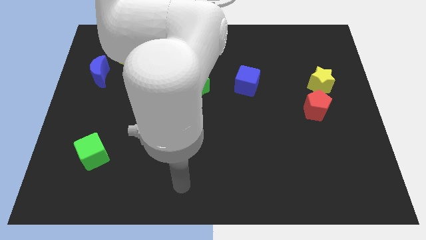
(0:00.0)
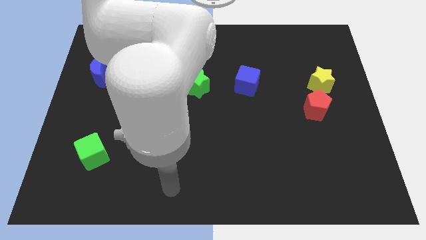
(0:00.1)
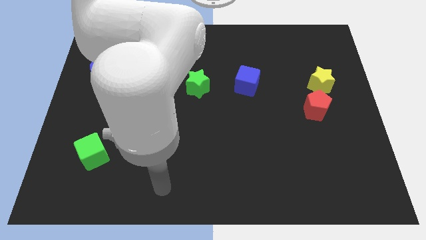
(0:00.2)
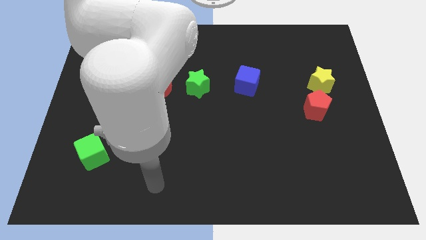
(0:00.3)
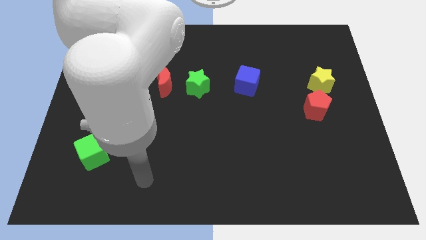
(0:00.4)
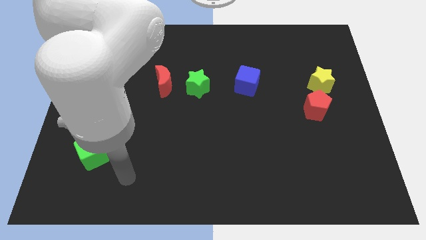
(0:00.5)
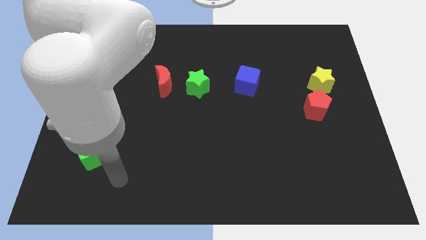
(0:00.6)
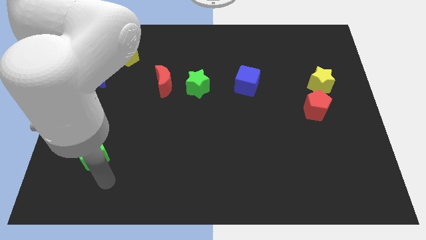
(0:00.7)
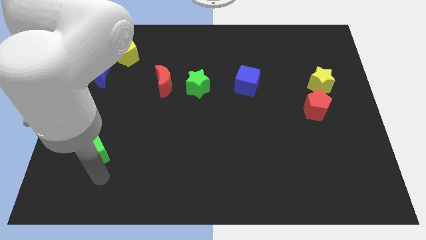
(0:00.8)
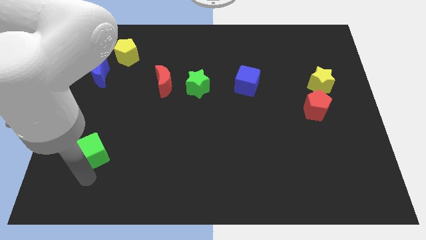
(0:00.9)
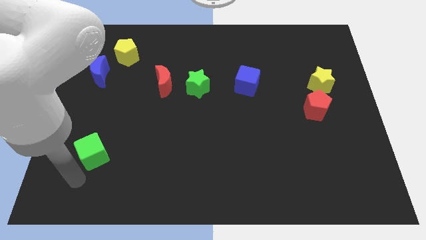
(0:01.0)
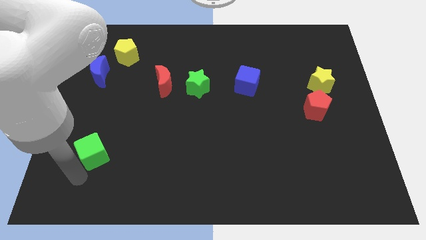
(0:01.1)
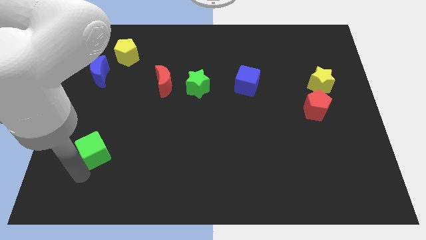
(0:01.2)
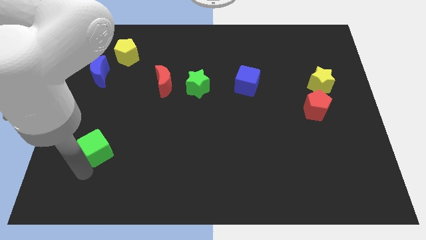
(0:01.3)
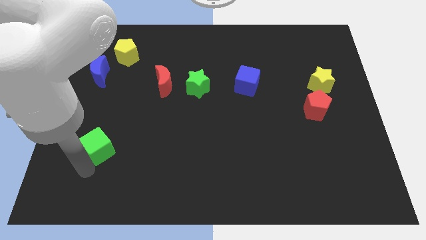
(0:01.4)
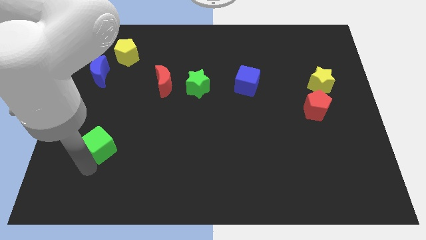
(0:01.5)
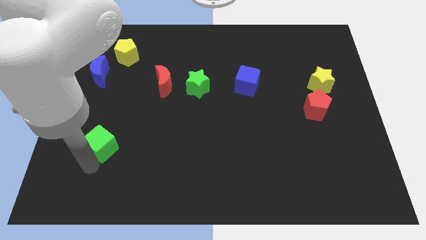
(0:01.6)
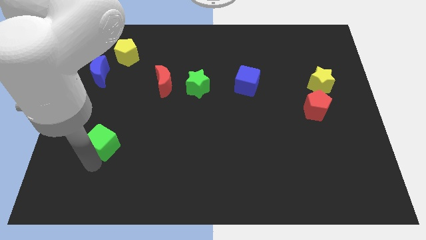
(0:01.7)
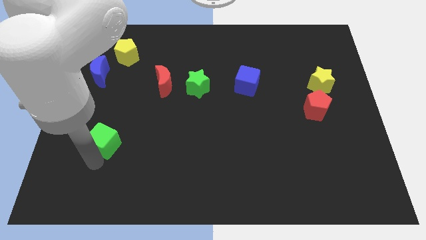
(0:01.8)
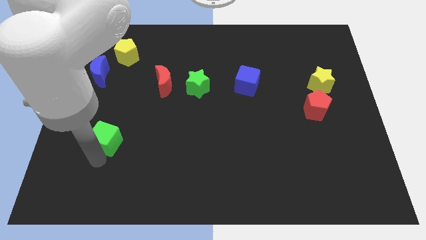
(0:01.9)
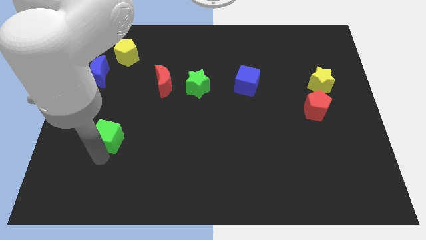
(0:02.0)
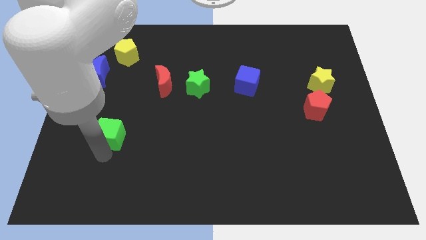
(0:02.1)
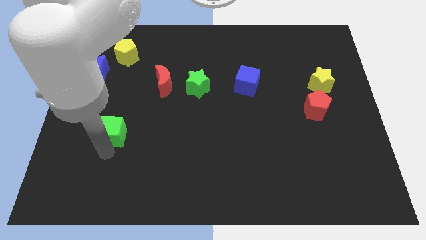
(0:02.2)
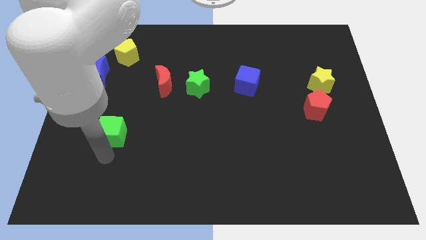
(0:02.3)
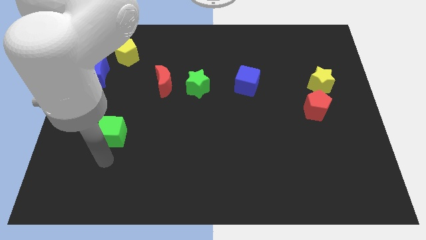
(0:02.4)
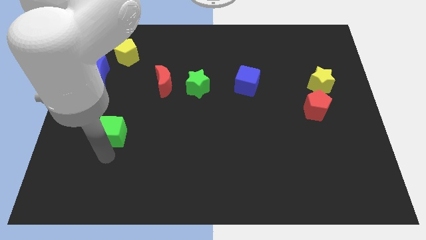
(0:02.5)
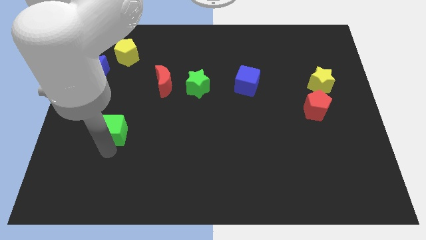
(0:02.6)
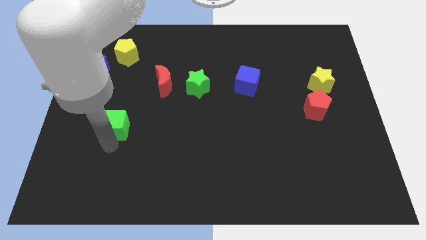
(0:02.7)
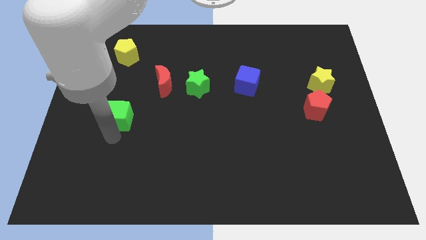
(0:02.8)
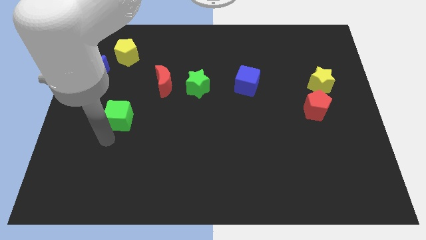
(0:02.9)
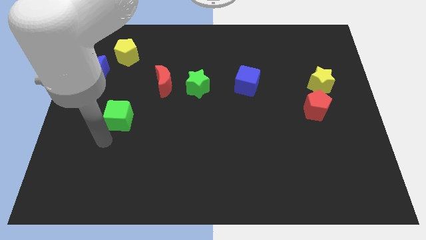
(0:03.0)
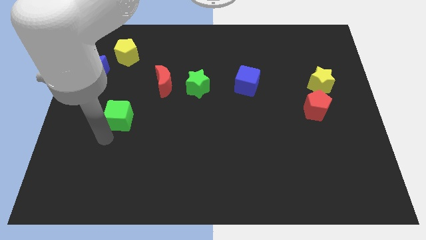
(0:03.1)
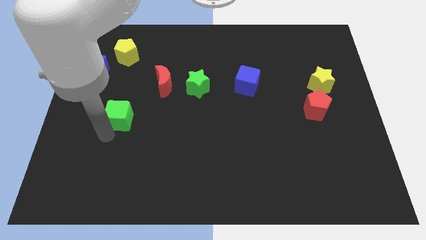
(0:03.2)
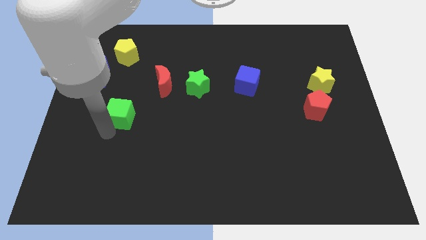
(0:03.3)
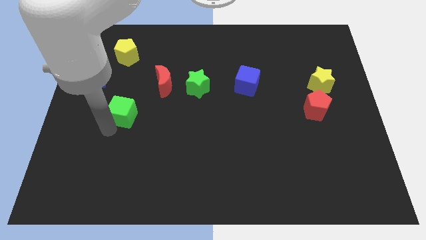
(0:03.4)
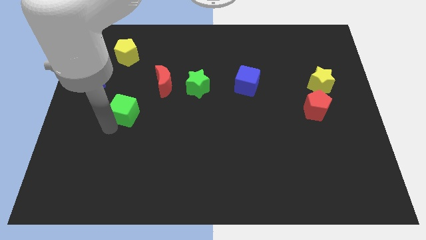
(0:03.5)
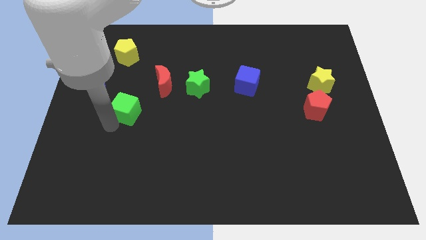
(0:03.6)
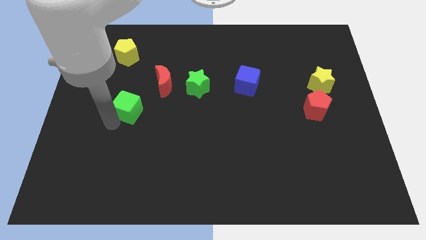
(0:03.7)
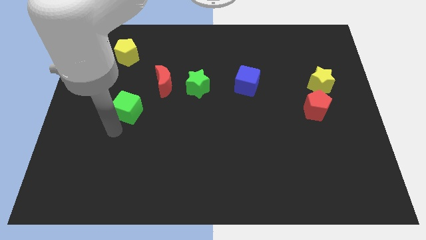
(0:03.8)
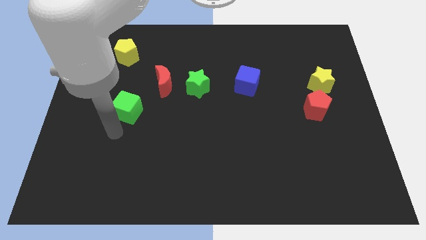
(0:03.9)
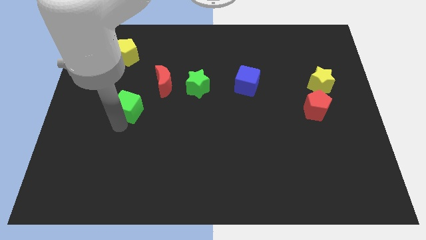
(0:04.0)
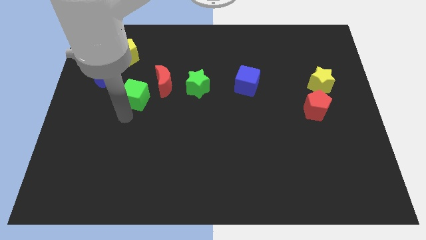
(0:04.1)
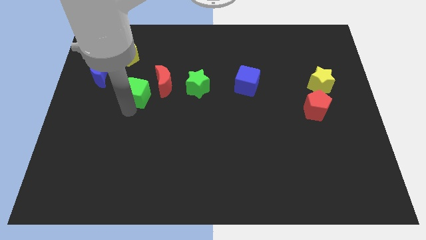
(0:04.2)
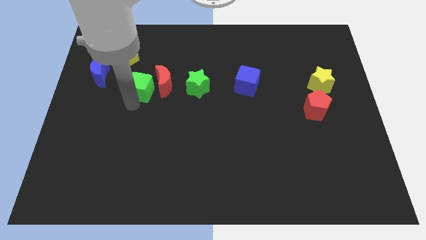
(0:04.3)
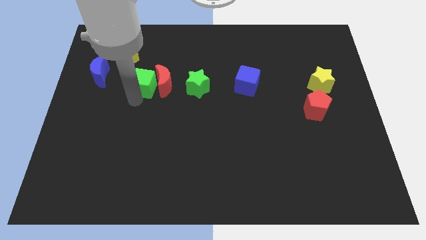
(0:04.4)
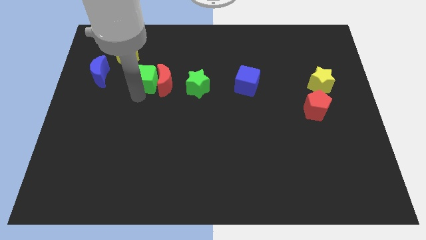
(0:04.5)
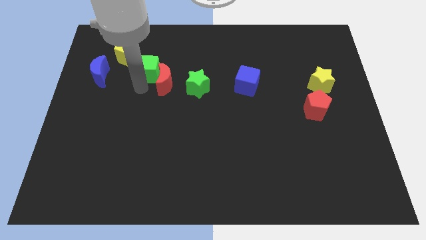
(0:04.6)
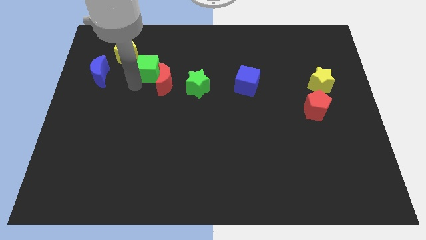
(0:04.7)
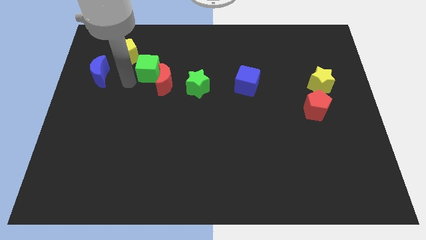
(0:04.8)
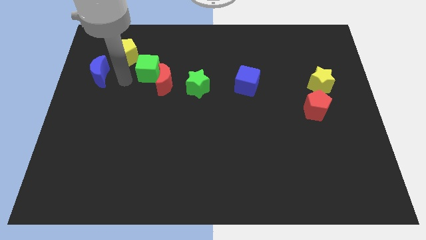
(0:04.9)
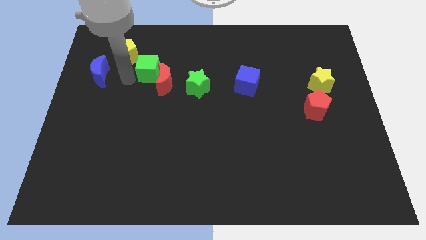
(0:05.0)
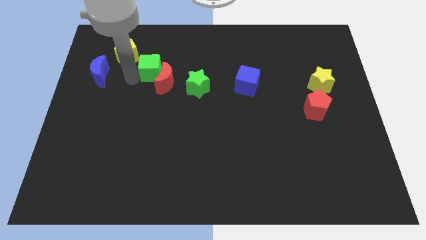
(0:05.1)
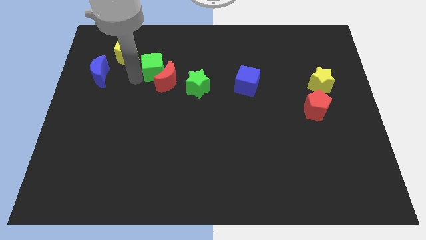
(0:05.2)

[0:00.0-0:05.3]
push the green cube up and right

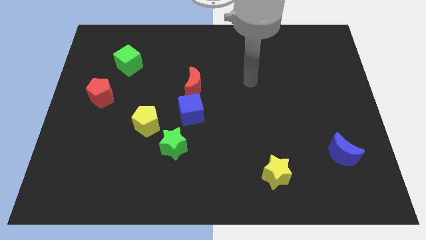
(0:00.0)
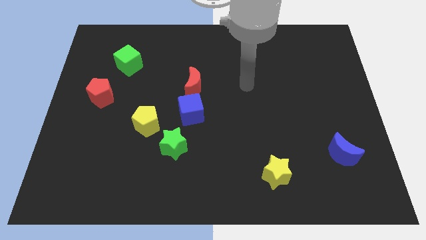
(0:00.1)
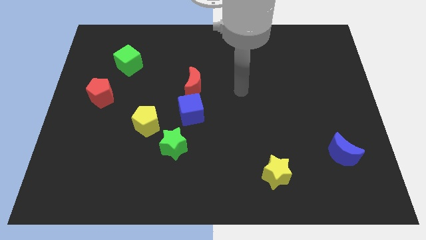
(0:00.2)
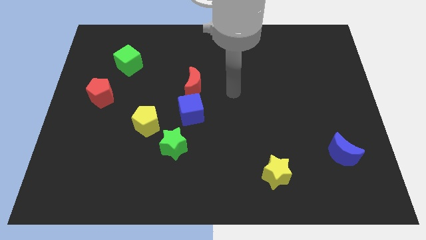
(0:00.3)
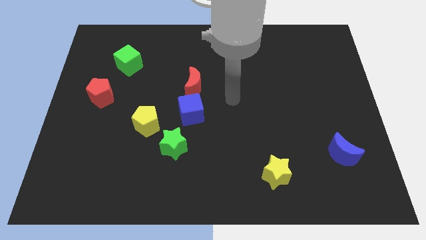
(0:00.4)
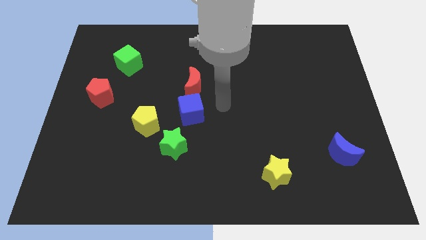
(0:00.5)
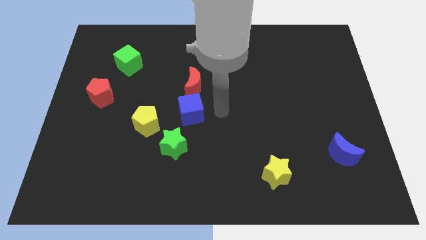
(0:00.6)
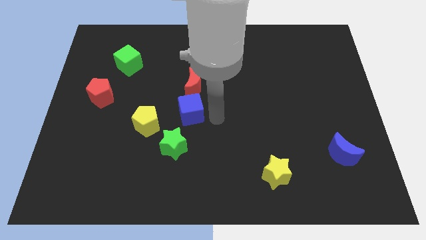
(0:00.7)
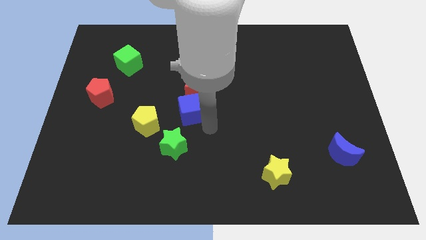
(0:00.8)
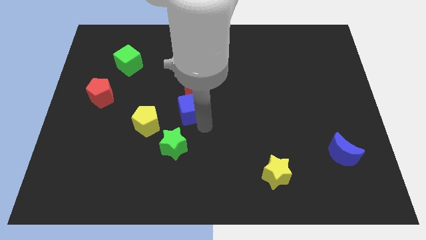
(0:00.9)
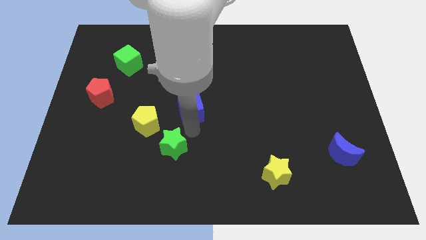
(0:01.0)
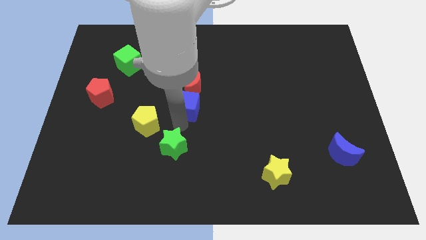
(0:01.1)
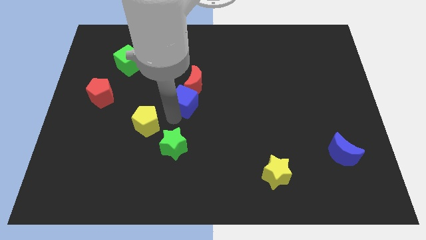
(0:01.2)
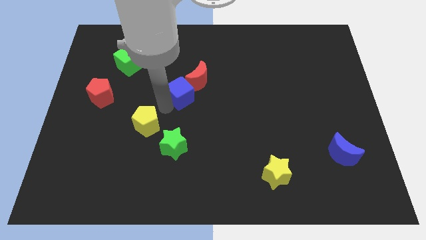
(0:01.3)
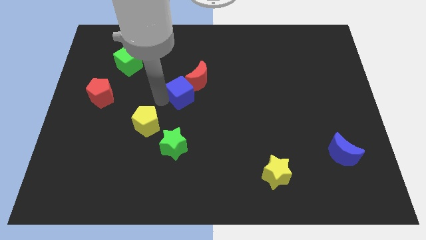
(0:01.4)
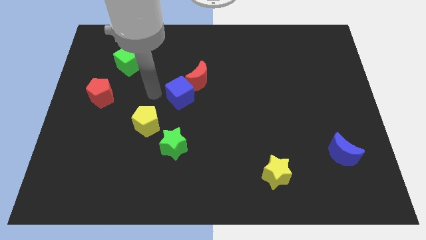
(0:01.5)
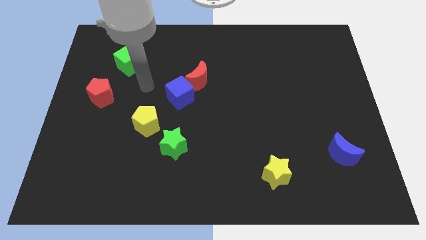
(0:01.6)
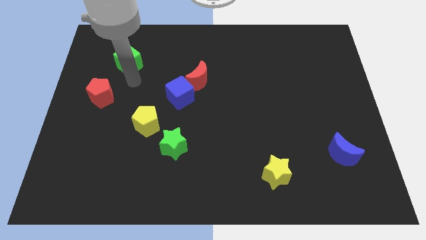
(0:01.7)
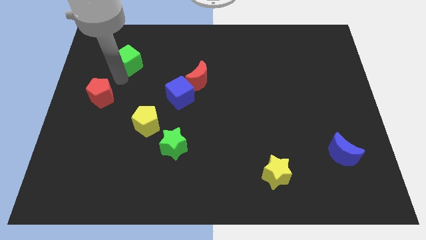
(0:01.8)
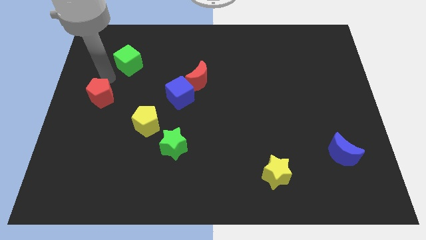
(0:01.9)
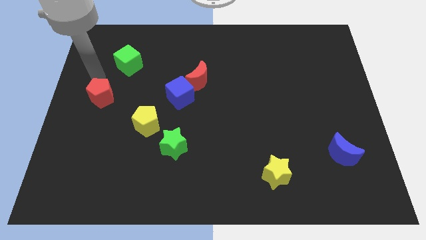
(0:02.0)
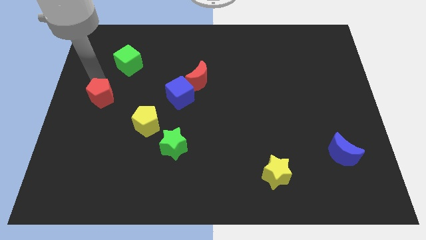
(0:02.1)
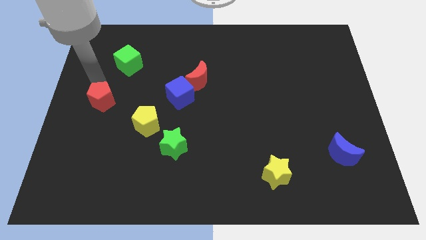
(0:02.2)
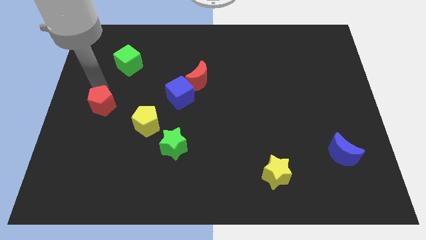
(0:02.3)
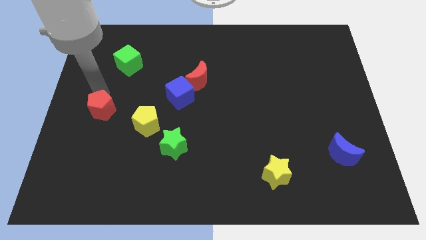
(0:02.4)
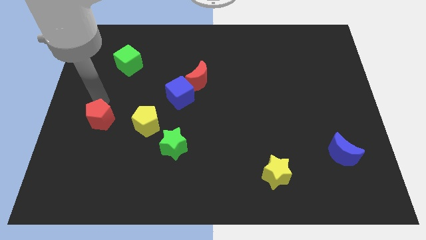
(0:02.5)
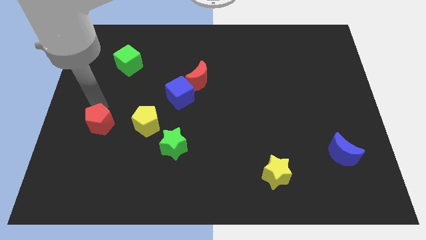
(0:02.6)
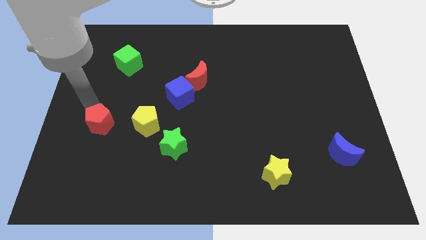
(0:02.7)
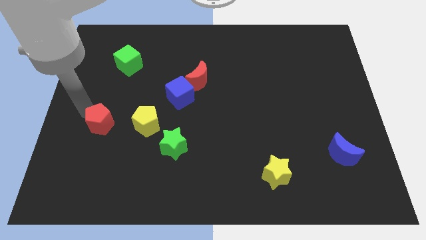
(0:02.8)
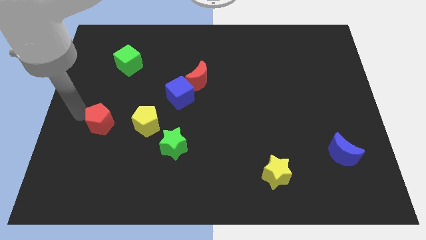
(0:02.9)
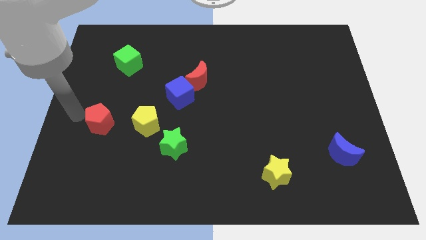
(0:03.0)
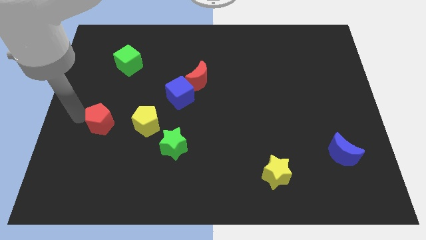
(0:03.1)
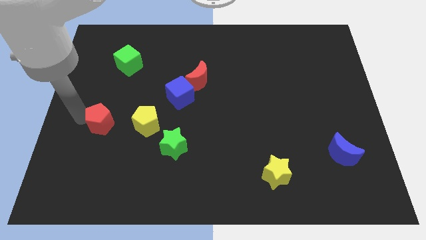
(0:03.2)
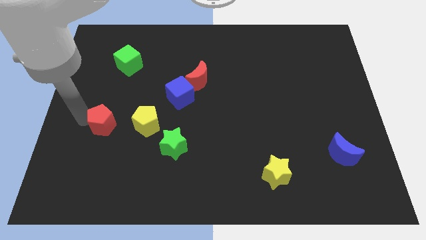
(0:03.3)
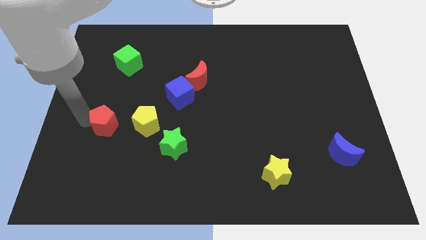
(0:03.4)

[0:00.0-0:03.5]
push the red pentagon downwards and right a little bit
